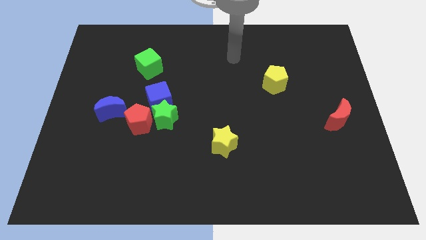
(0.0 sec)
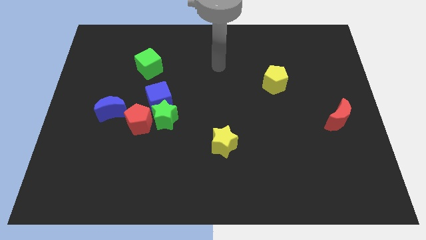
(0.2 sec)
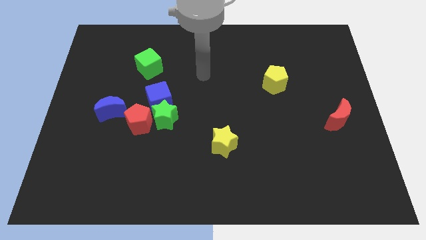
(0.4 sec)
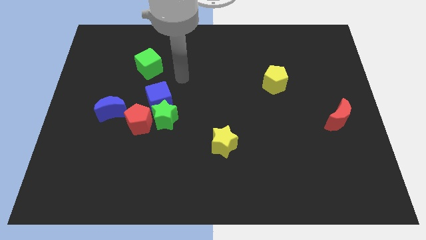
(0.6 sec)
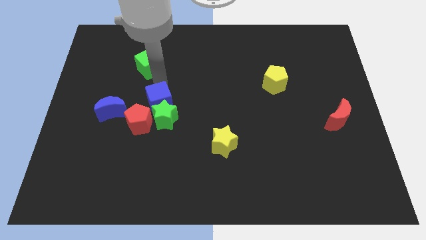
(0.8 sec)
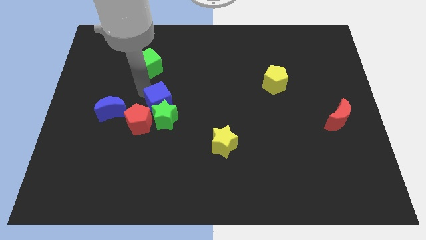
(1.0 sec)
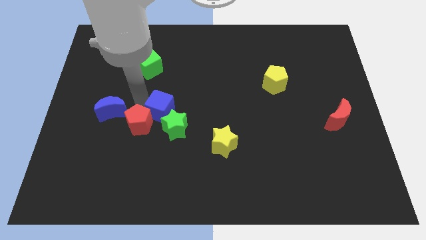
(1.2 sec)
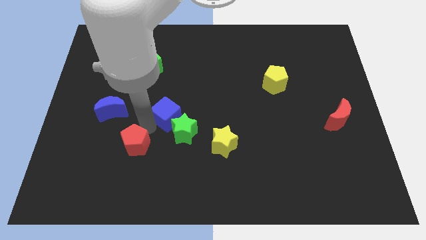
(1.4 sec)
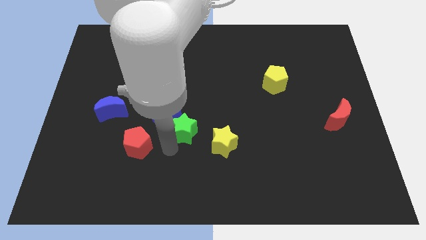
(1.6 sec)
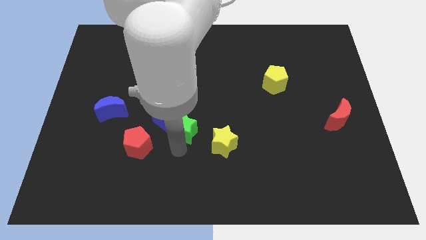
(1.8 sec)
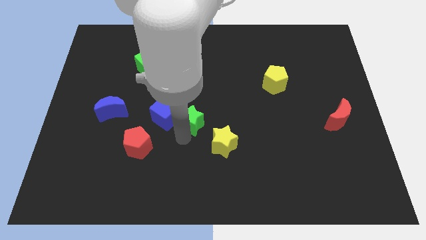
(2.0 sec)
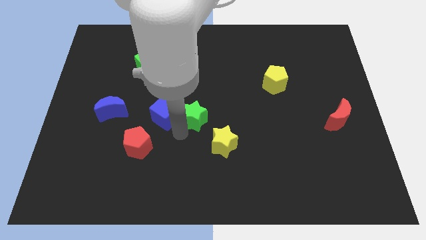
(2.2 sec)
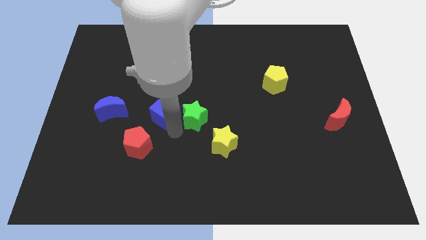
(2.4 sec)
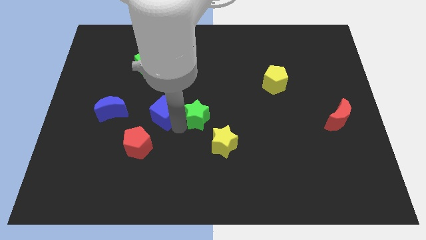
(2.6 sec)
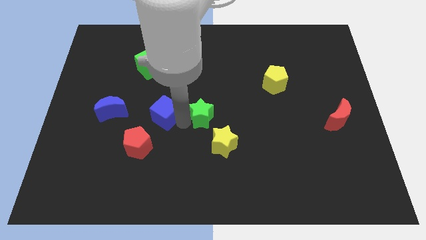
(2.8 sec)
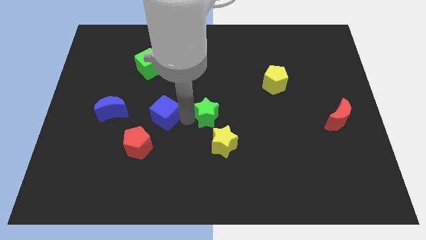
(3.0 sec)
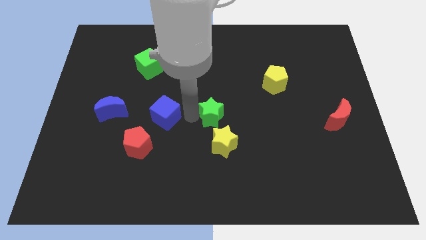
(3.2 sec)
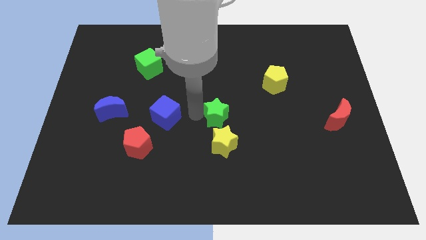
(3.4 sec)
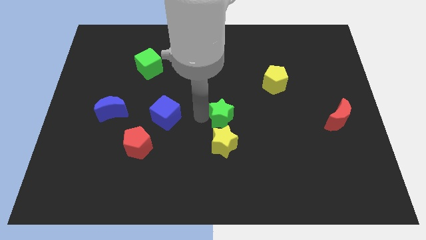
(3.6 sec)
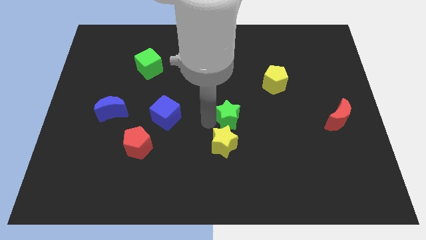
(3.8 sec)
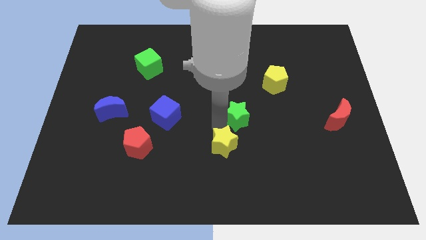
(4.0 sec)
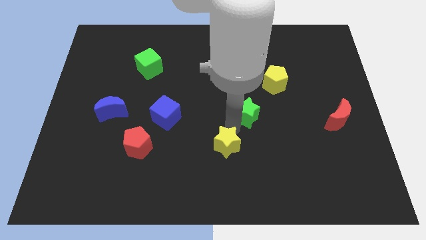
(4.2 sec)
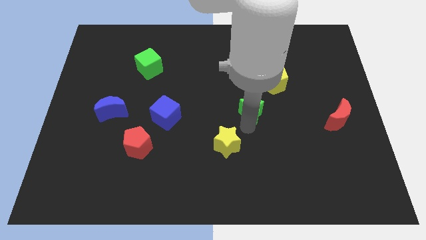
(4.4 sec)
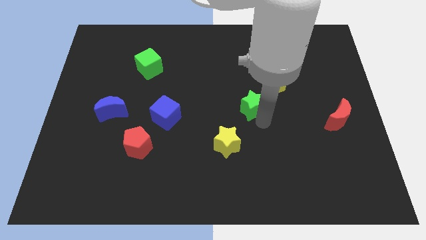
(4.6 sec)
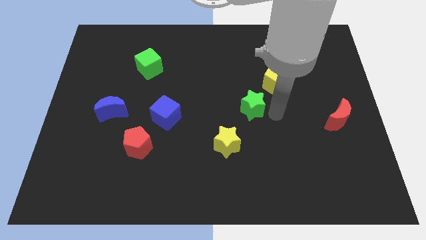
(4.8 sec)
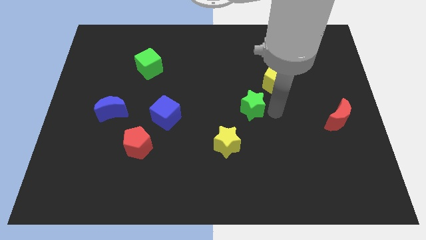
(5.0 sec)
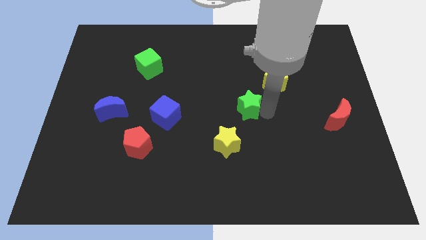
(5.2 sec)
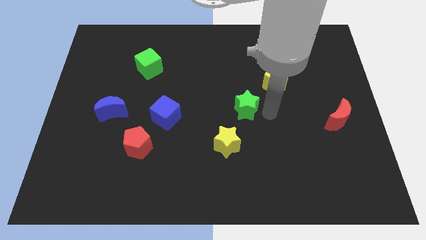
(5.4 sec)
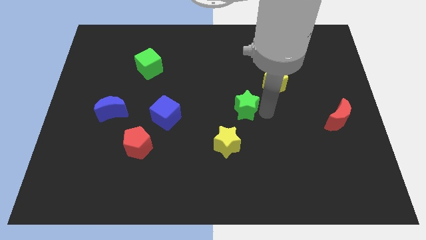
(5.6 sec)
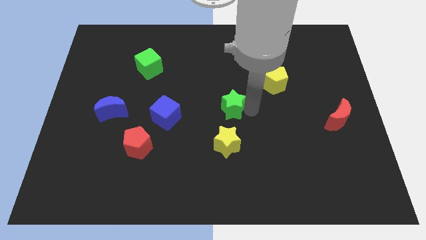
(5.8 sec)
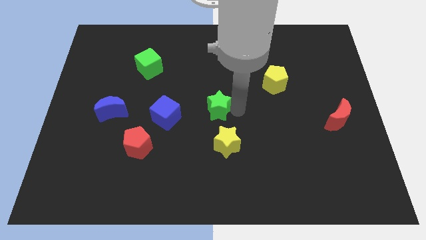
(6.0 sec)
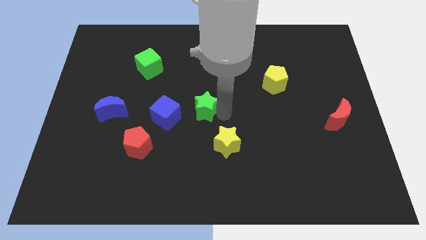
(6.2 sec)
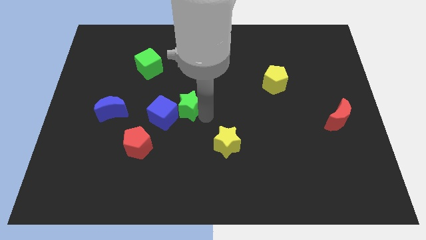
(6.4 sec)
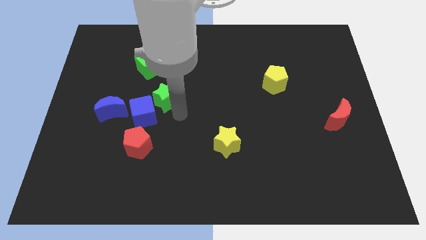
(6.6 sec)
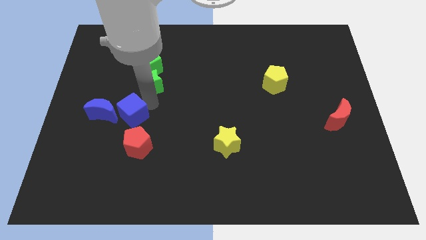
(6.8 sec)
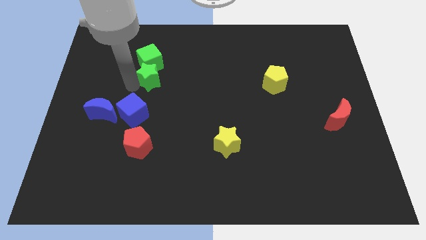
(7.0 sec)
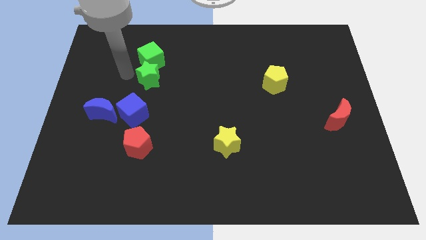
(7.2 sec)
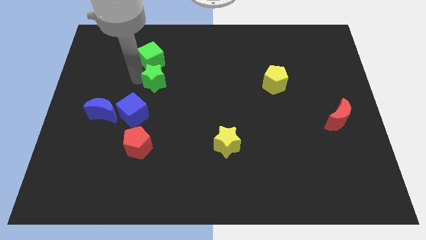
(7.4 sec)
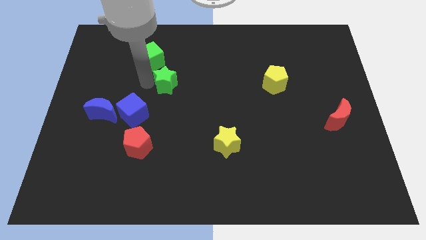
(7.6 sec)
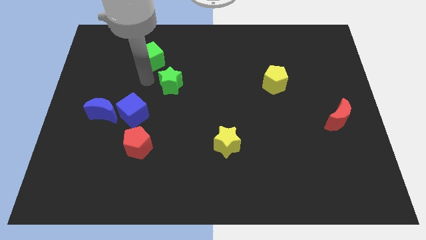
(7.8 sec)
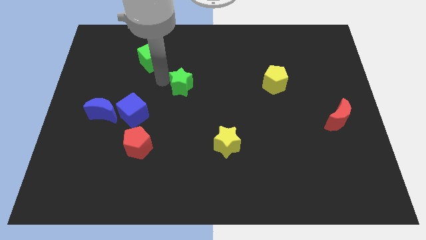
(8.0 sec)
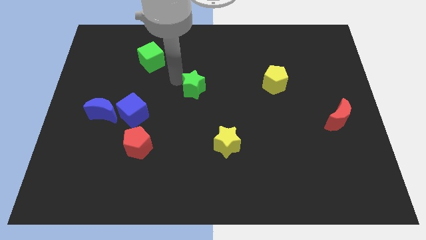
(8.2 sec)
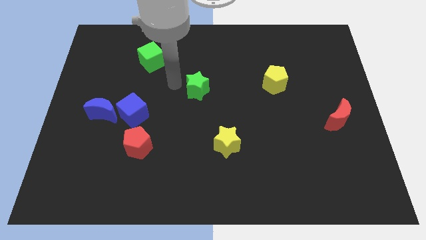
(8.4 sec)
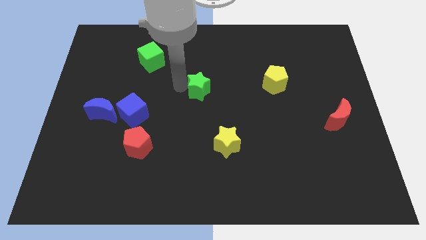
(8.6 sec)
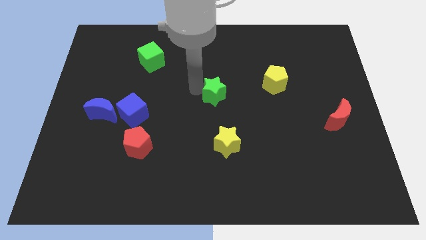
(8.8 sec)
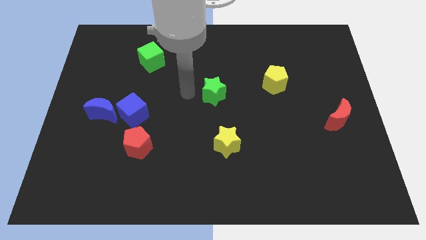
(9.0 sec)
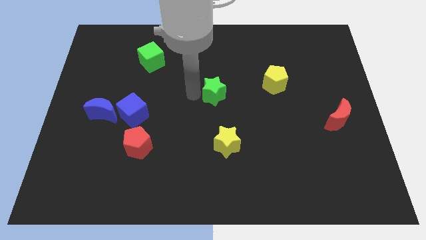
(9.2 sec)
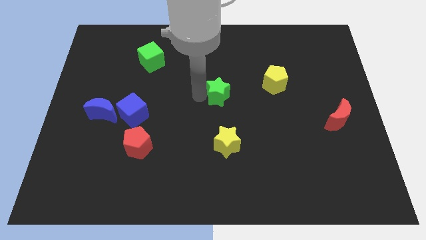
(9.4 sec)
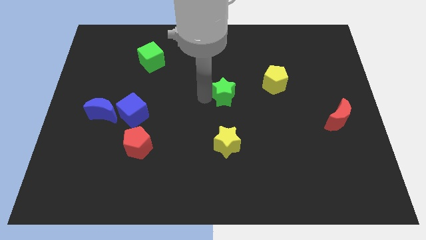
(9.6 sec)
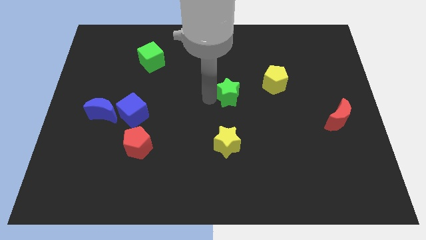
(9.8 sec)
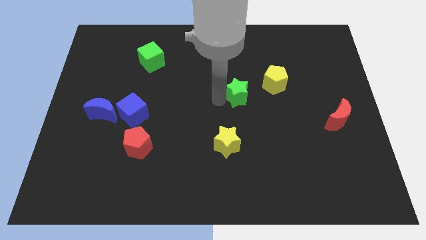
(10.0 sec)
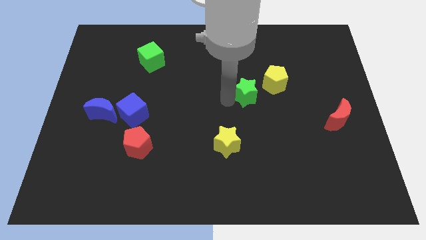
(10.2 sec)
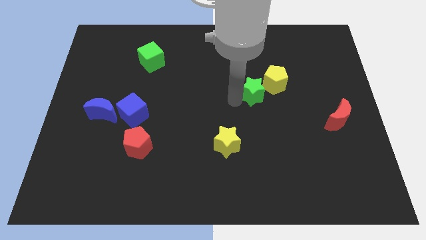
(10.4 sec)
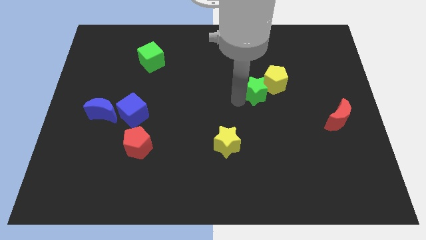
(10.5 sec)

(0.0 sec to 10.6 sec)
push the green star next to the yellow pentagon

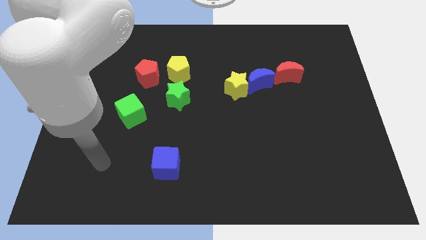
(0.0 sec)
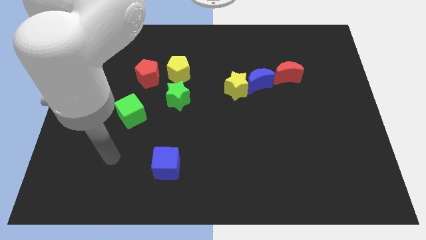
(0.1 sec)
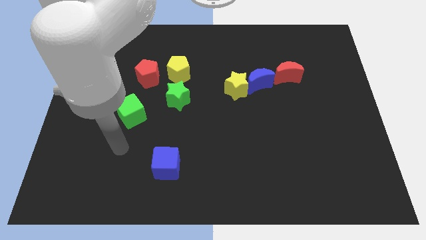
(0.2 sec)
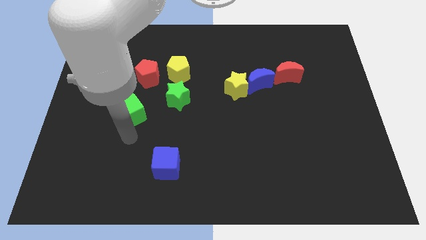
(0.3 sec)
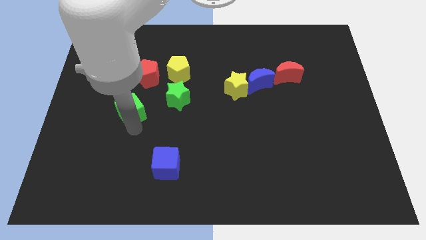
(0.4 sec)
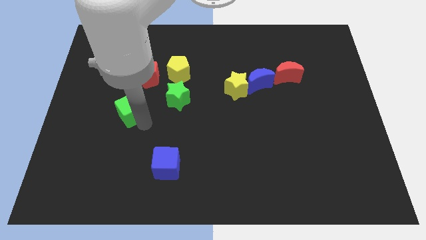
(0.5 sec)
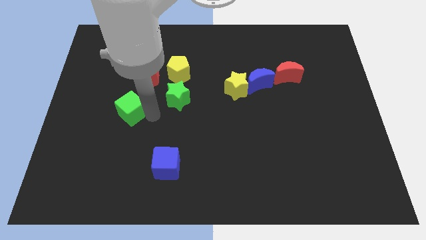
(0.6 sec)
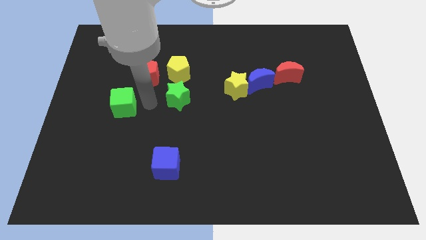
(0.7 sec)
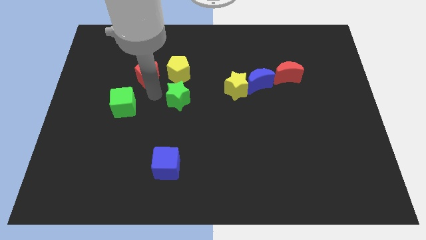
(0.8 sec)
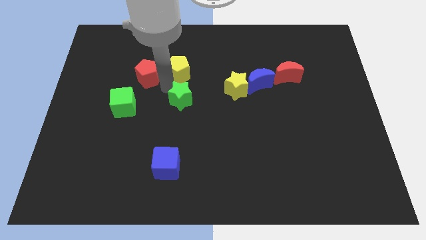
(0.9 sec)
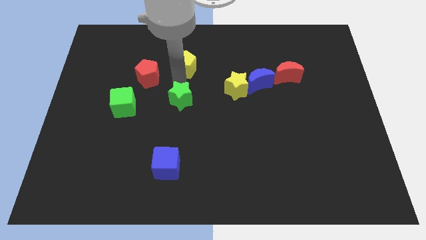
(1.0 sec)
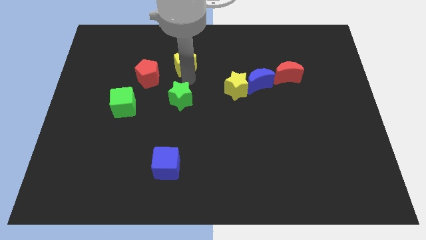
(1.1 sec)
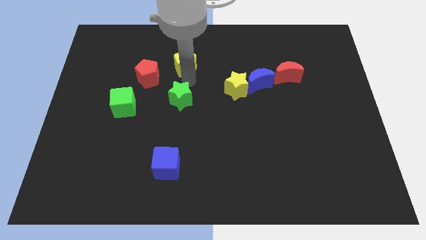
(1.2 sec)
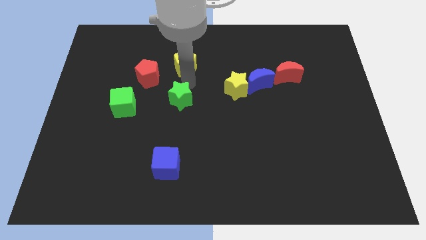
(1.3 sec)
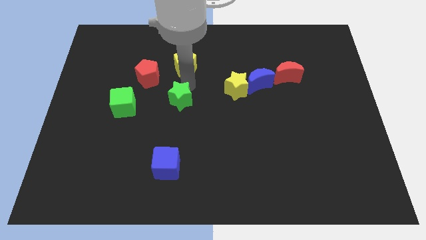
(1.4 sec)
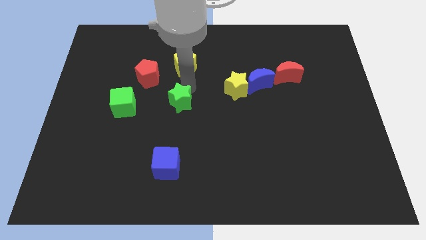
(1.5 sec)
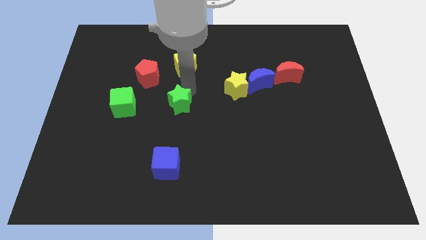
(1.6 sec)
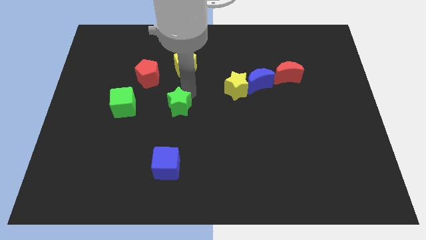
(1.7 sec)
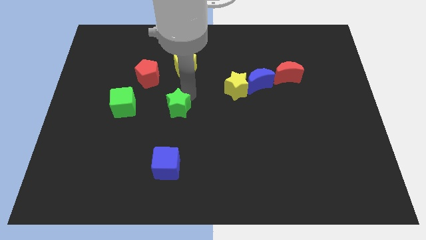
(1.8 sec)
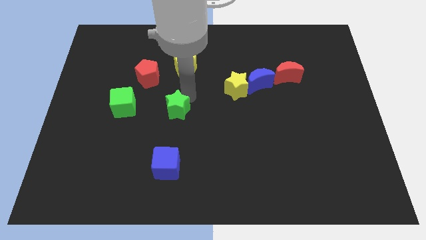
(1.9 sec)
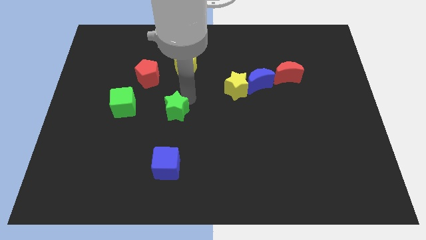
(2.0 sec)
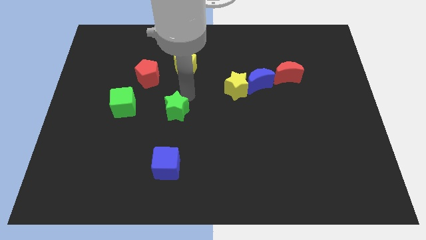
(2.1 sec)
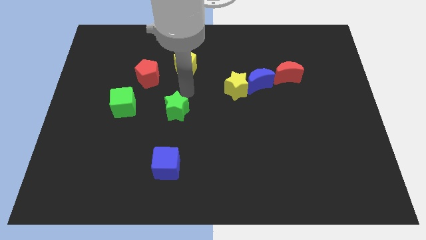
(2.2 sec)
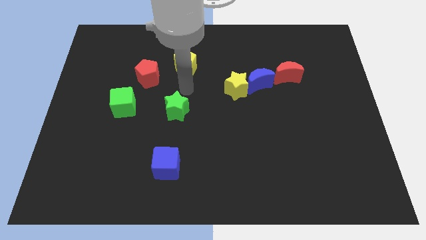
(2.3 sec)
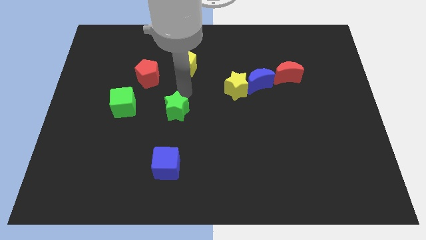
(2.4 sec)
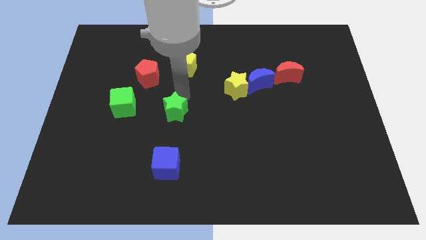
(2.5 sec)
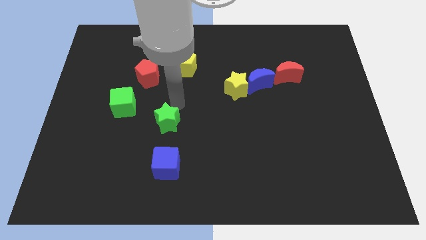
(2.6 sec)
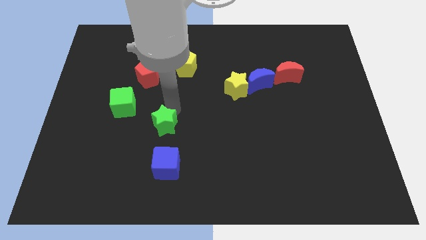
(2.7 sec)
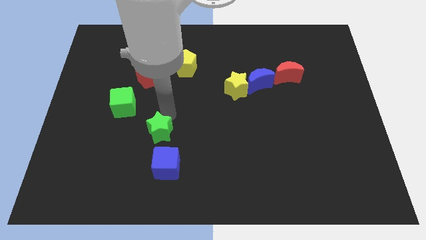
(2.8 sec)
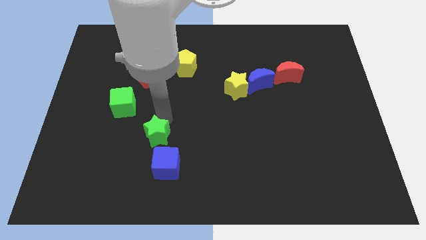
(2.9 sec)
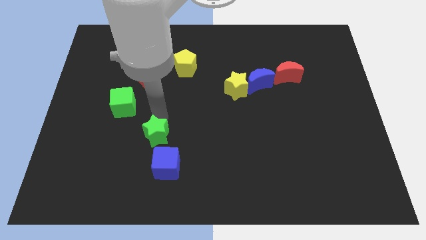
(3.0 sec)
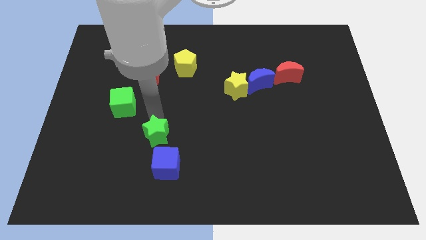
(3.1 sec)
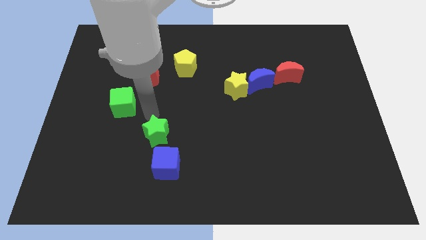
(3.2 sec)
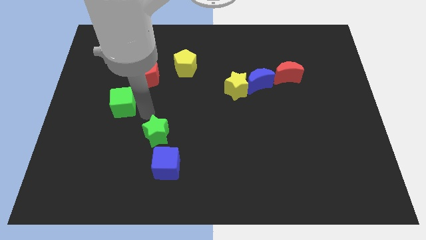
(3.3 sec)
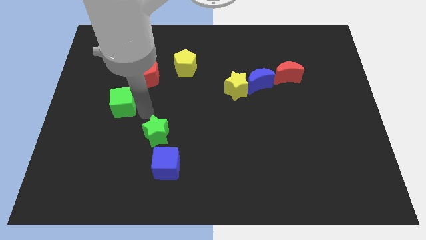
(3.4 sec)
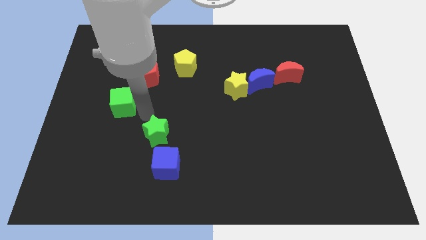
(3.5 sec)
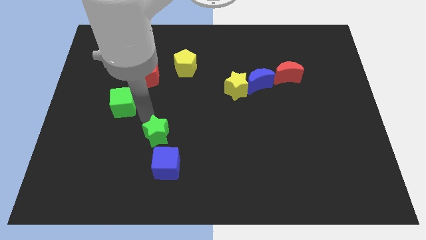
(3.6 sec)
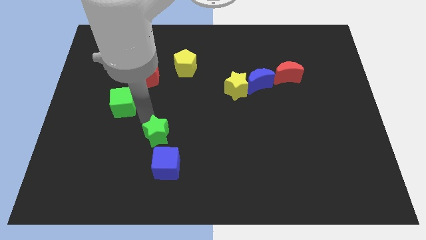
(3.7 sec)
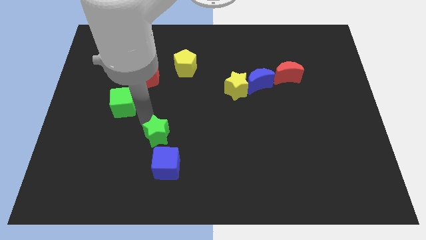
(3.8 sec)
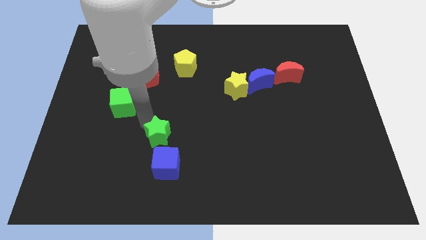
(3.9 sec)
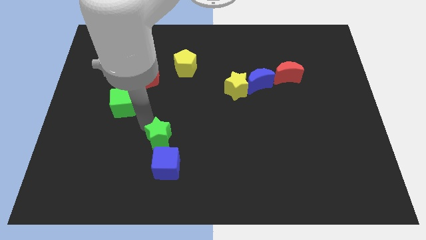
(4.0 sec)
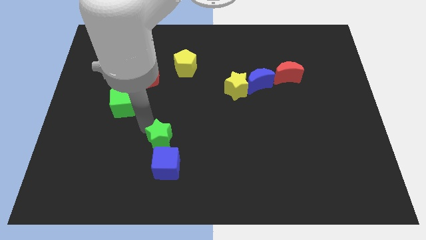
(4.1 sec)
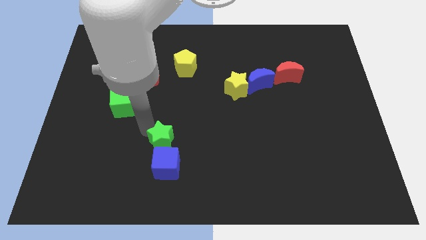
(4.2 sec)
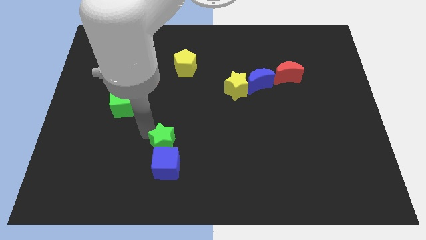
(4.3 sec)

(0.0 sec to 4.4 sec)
put the green star next to the blue cube
